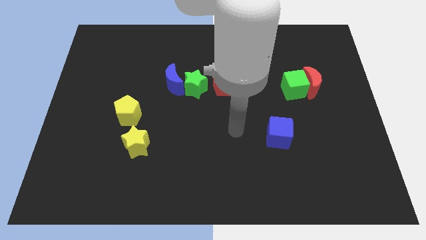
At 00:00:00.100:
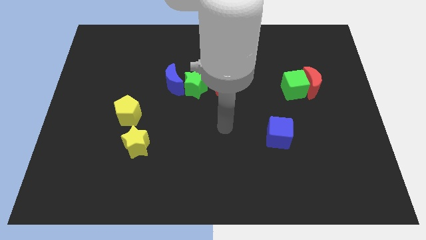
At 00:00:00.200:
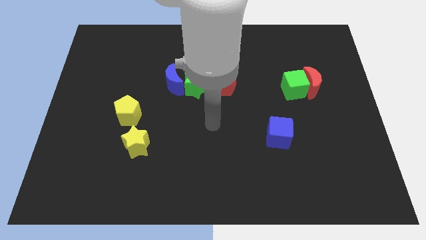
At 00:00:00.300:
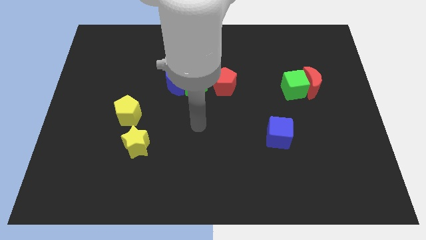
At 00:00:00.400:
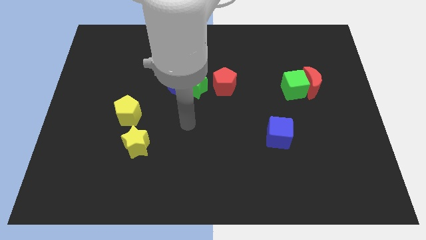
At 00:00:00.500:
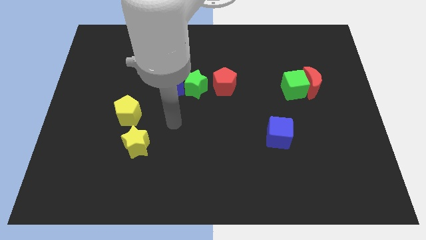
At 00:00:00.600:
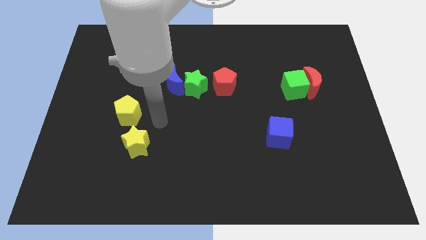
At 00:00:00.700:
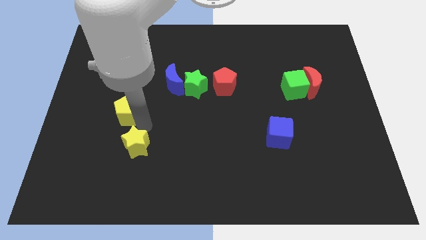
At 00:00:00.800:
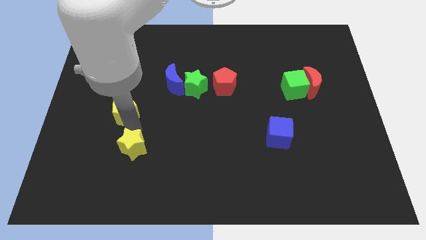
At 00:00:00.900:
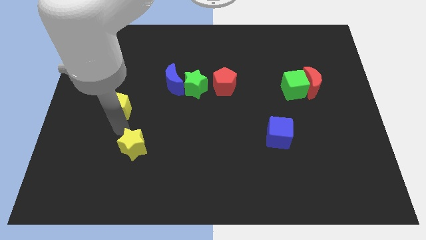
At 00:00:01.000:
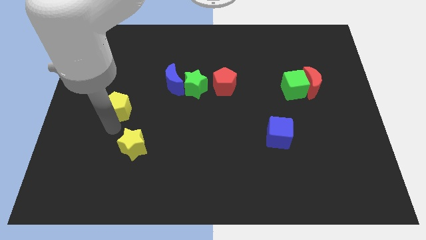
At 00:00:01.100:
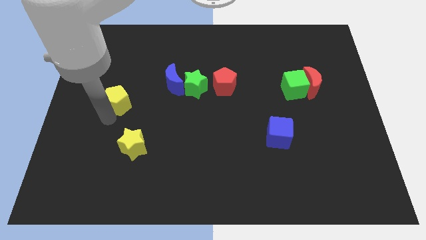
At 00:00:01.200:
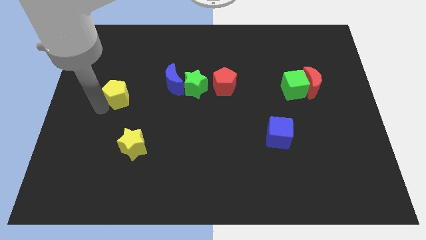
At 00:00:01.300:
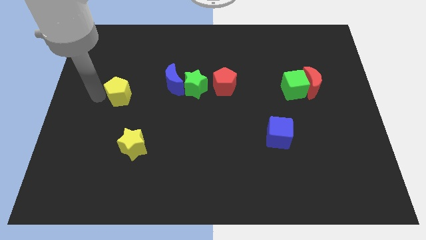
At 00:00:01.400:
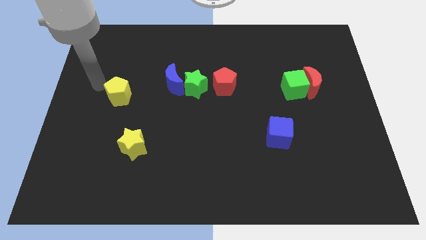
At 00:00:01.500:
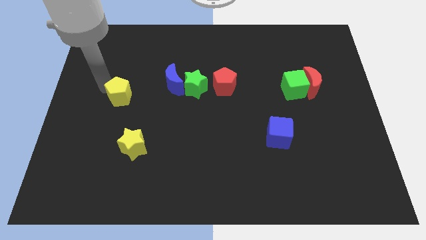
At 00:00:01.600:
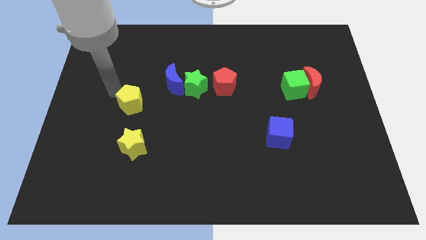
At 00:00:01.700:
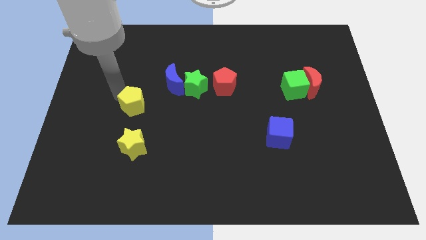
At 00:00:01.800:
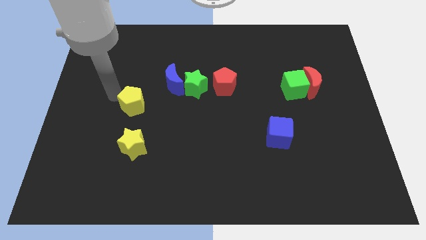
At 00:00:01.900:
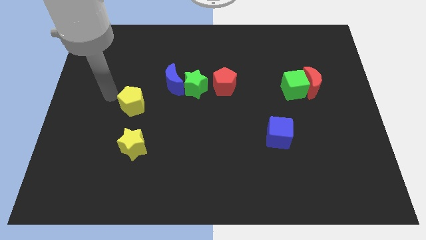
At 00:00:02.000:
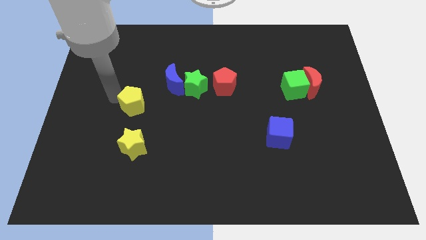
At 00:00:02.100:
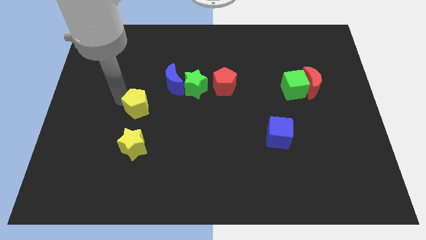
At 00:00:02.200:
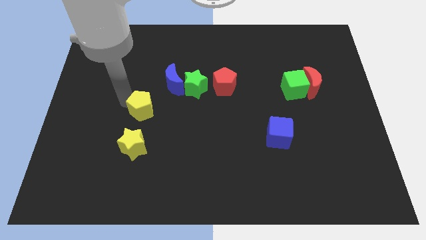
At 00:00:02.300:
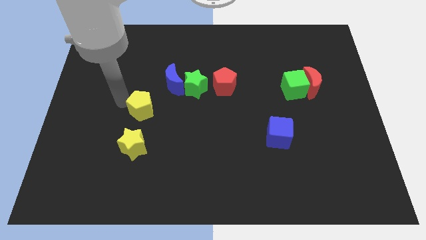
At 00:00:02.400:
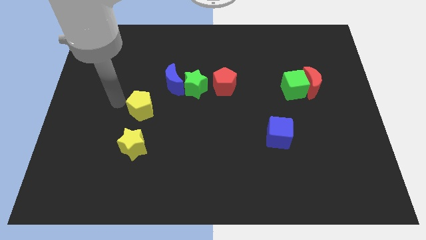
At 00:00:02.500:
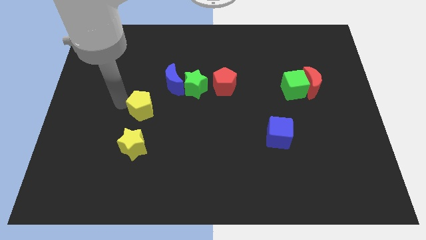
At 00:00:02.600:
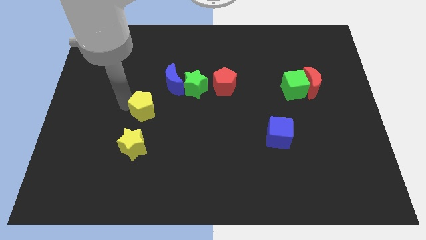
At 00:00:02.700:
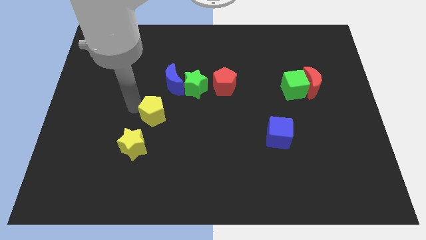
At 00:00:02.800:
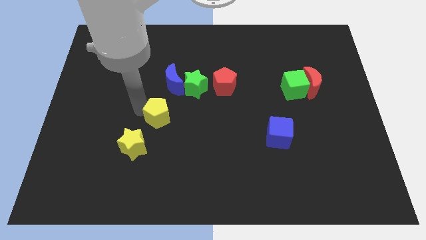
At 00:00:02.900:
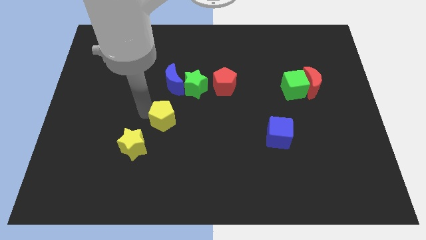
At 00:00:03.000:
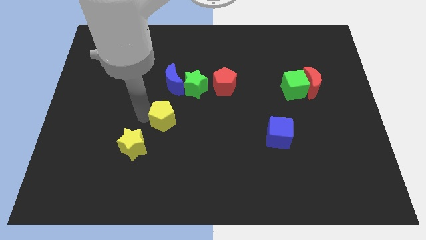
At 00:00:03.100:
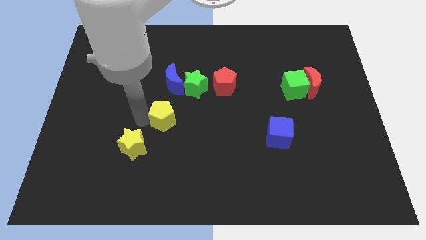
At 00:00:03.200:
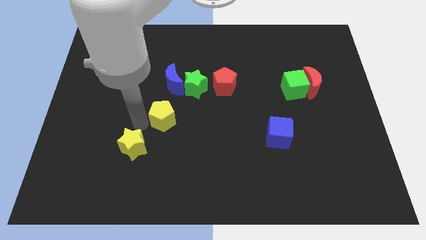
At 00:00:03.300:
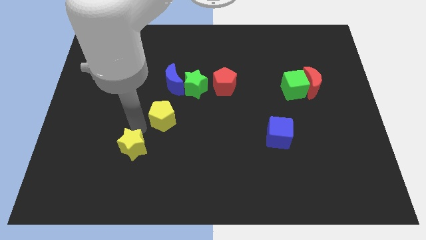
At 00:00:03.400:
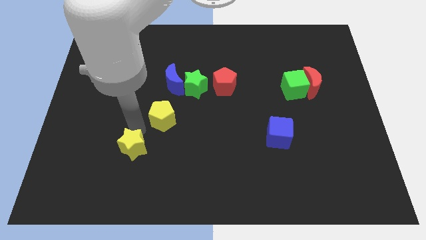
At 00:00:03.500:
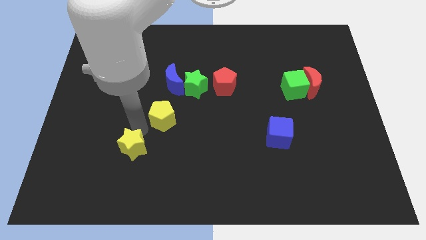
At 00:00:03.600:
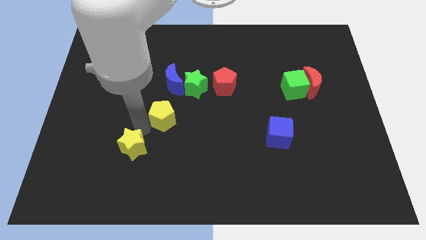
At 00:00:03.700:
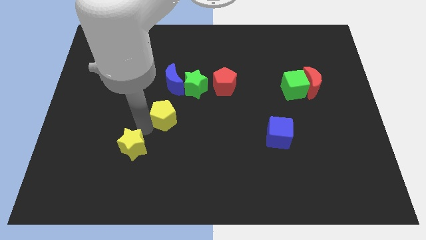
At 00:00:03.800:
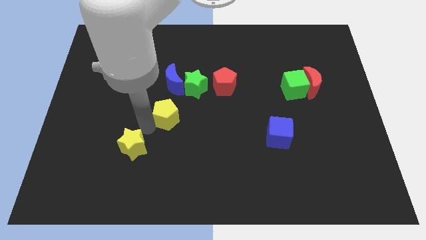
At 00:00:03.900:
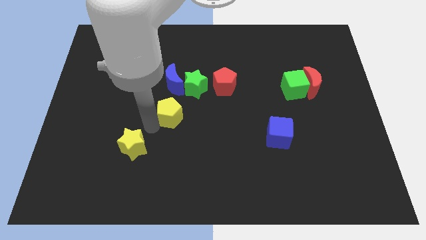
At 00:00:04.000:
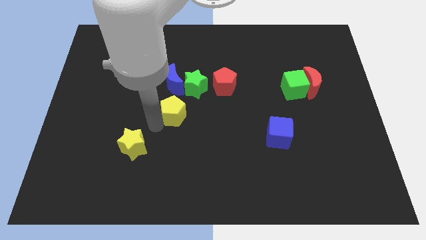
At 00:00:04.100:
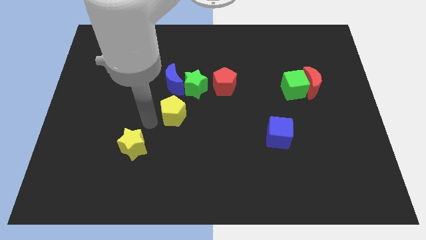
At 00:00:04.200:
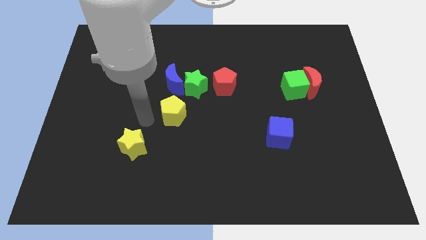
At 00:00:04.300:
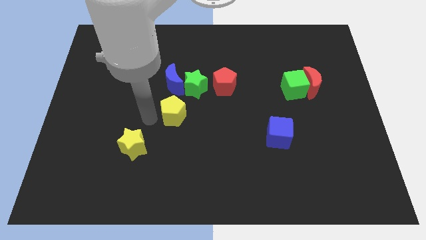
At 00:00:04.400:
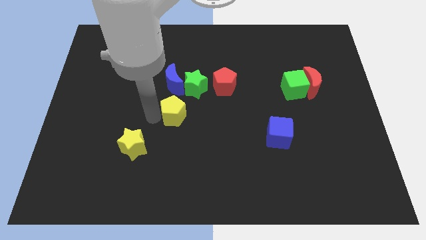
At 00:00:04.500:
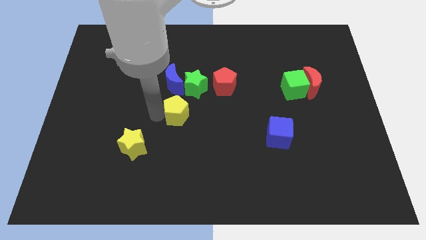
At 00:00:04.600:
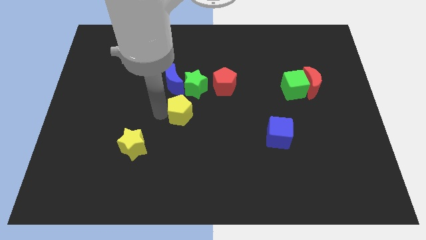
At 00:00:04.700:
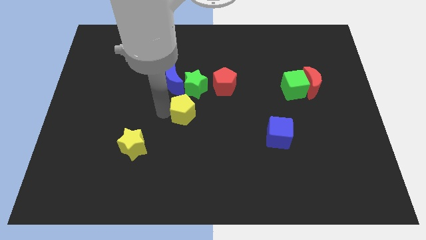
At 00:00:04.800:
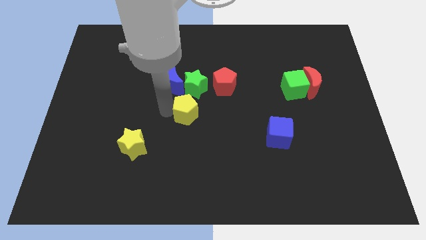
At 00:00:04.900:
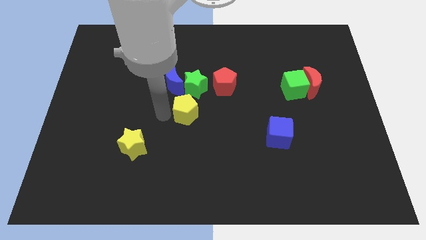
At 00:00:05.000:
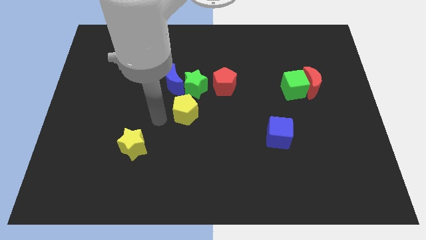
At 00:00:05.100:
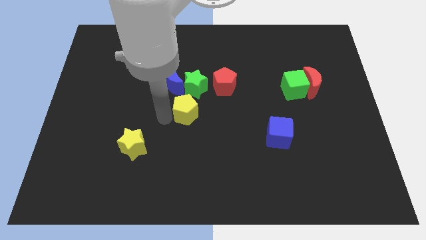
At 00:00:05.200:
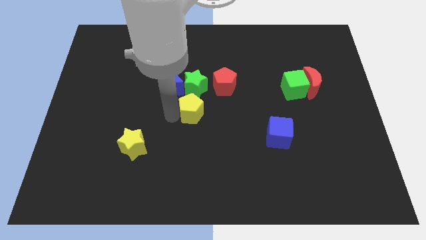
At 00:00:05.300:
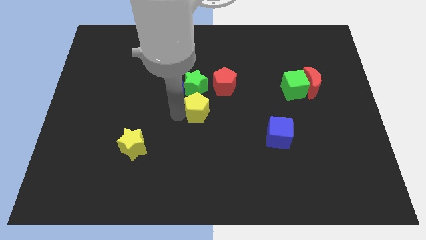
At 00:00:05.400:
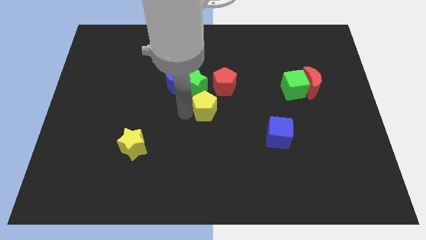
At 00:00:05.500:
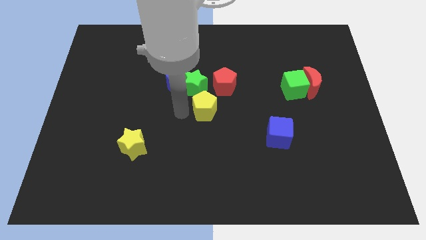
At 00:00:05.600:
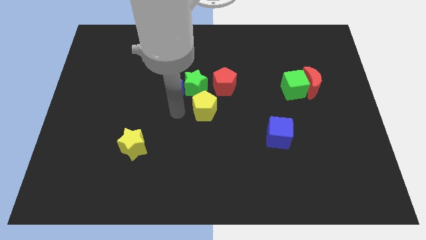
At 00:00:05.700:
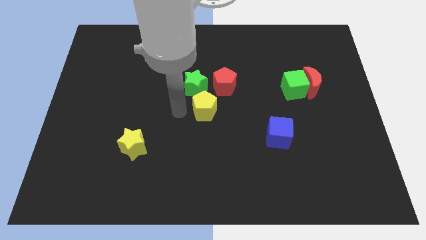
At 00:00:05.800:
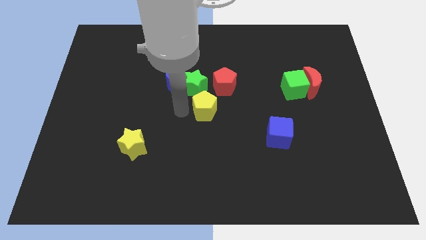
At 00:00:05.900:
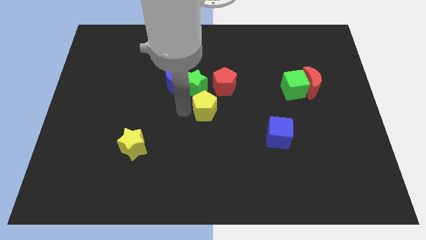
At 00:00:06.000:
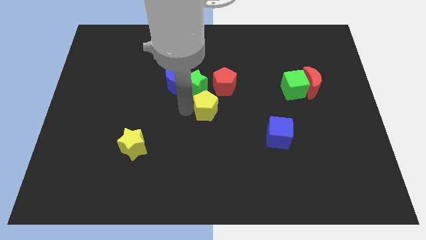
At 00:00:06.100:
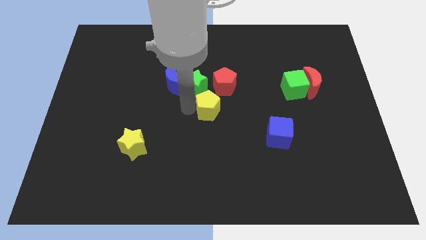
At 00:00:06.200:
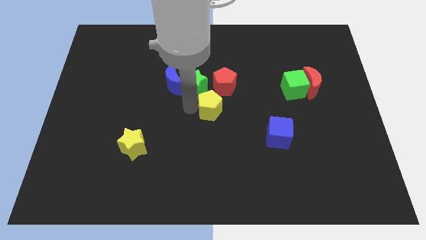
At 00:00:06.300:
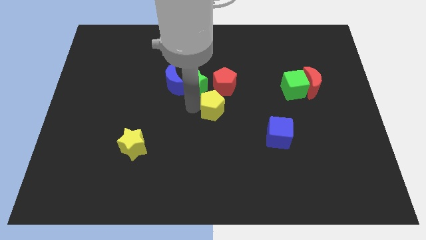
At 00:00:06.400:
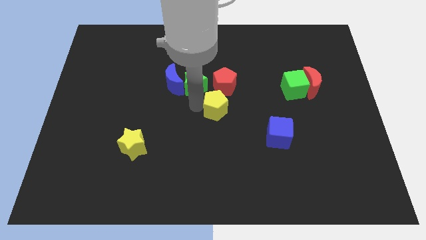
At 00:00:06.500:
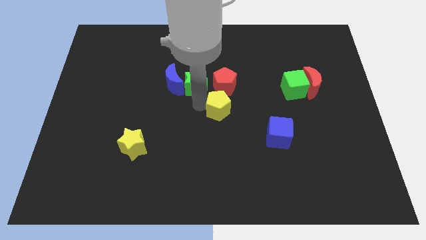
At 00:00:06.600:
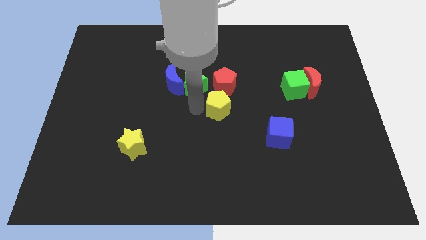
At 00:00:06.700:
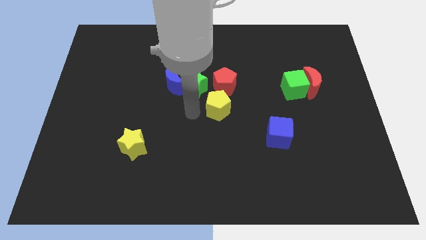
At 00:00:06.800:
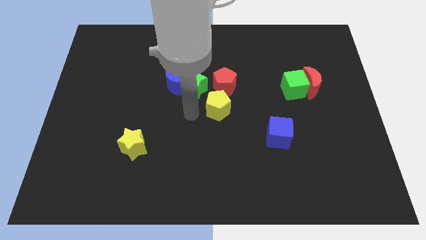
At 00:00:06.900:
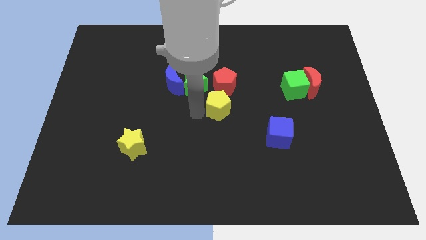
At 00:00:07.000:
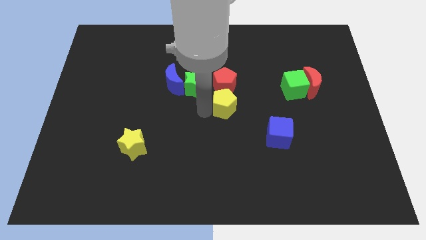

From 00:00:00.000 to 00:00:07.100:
push the yellow pentagon to the bottom right of the red pentagon
